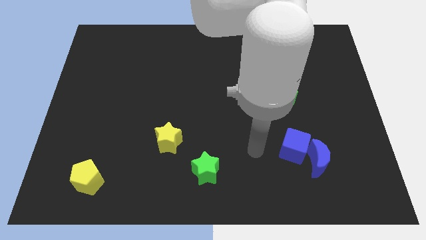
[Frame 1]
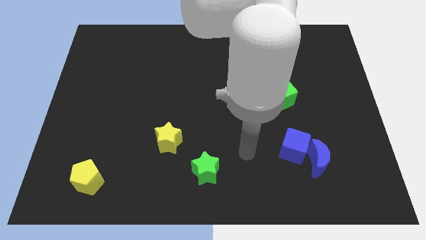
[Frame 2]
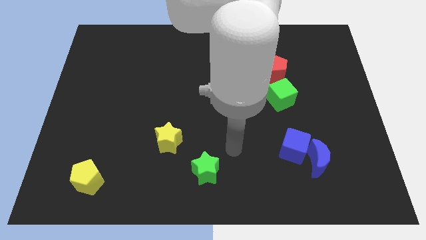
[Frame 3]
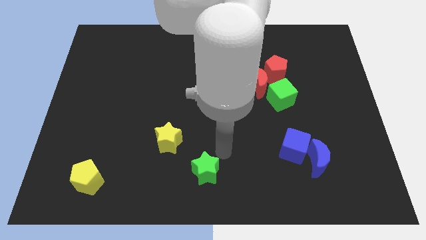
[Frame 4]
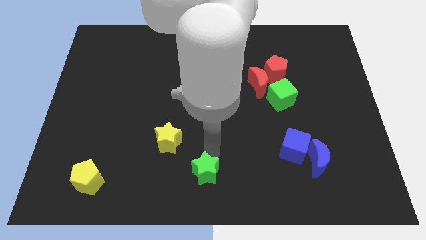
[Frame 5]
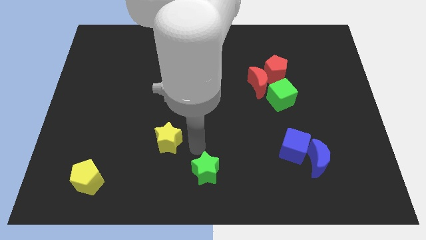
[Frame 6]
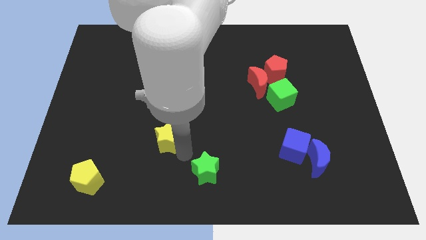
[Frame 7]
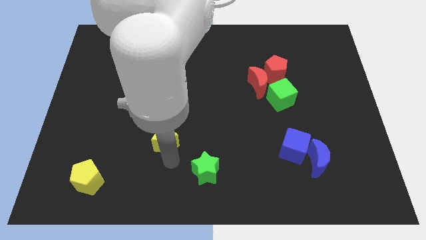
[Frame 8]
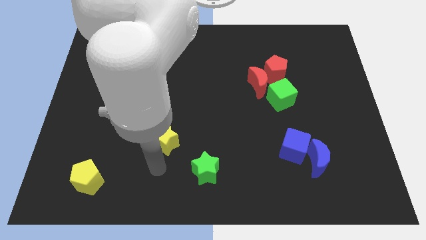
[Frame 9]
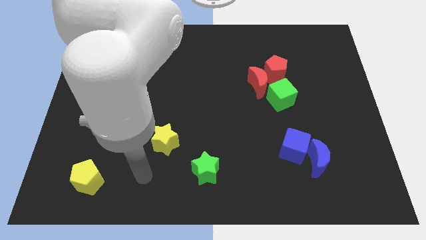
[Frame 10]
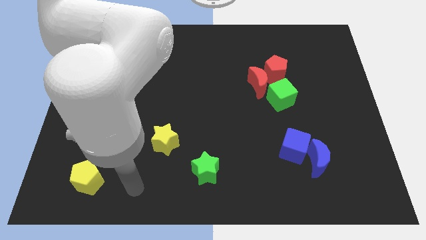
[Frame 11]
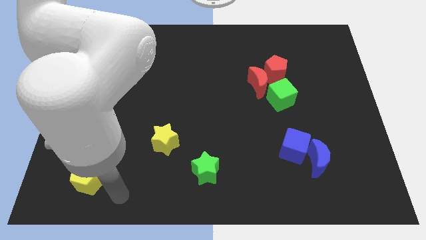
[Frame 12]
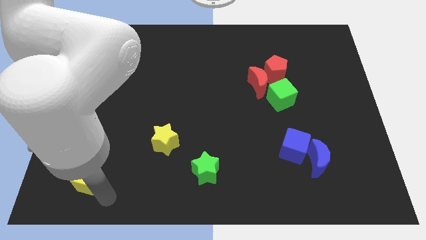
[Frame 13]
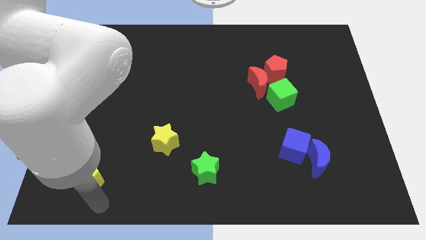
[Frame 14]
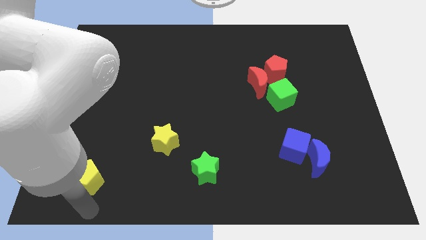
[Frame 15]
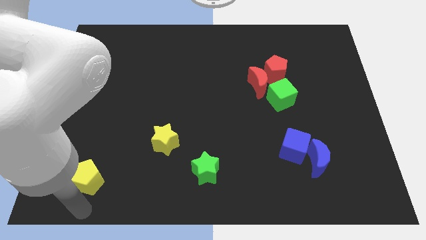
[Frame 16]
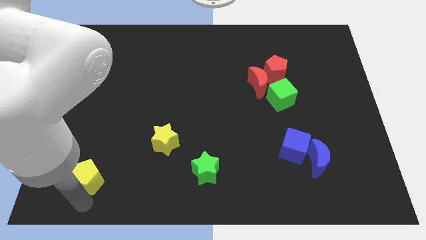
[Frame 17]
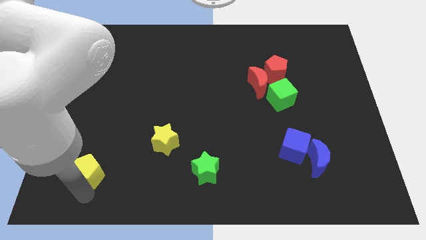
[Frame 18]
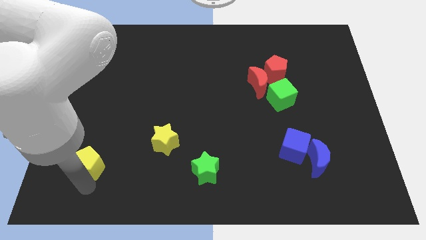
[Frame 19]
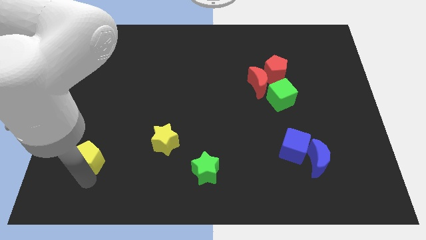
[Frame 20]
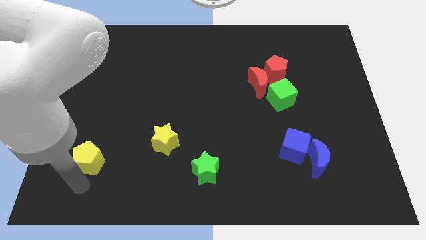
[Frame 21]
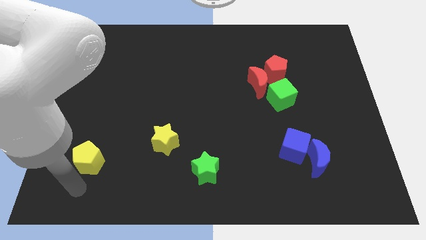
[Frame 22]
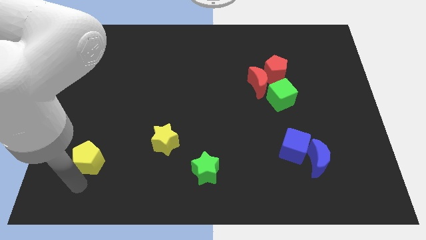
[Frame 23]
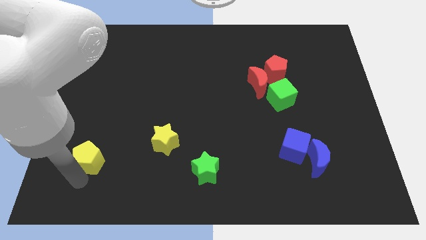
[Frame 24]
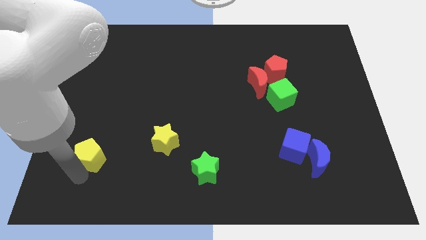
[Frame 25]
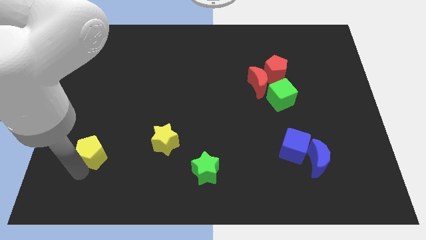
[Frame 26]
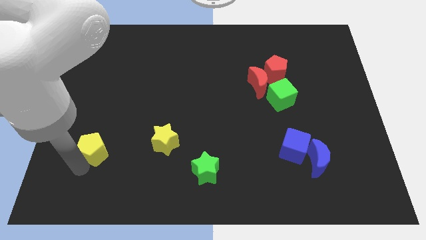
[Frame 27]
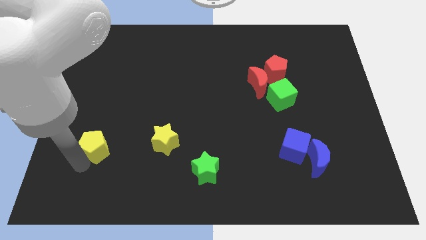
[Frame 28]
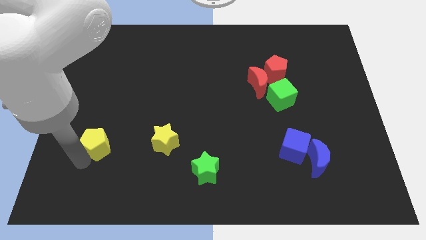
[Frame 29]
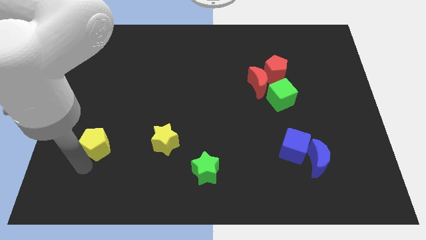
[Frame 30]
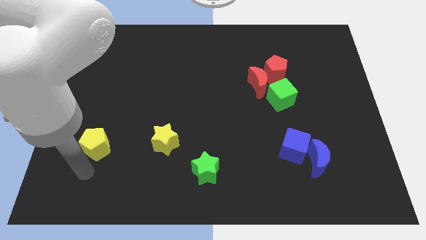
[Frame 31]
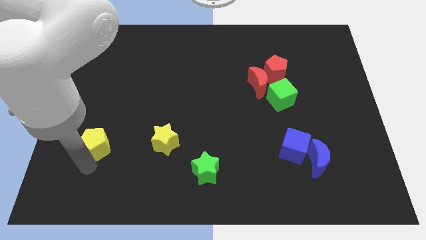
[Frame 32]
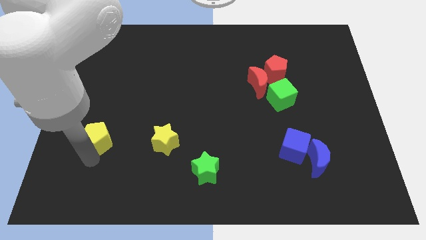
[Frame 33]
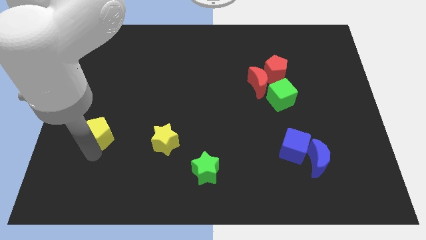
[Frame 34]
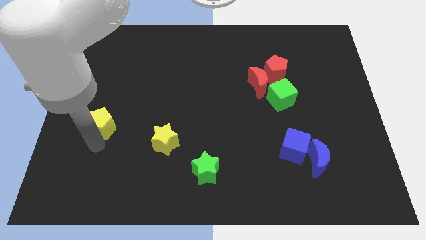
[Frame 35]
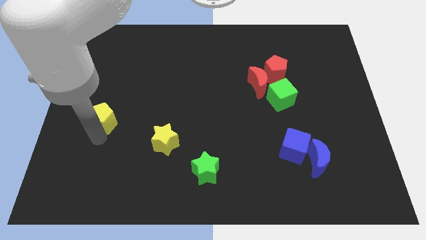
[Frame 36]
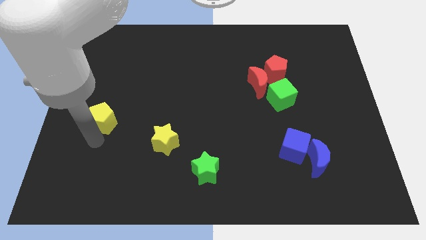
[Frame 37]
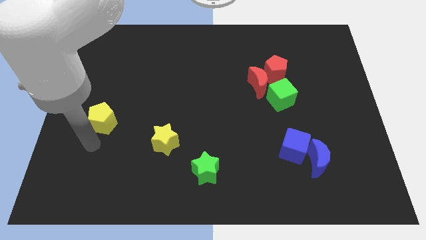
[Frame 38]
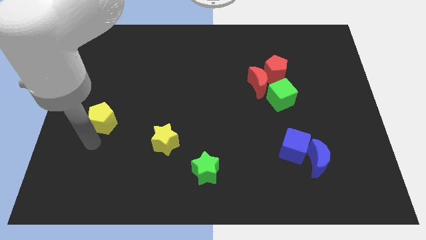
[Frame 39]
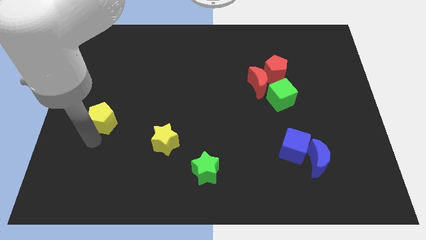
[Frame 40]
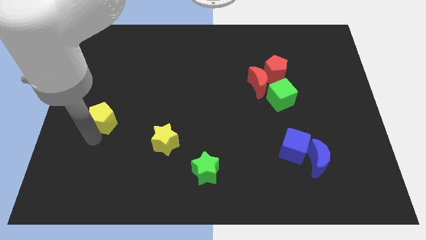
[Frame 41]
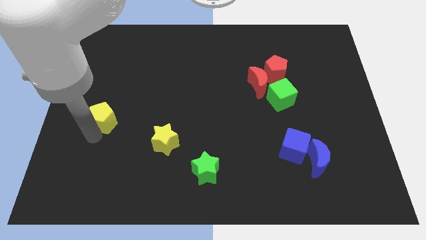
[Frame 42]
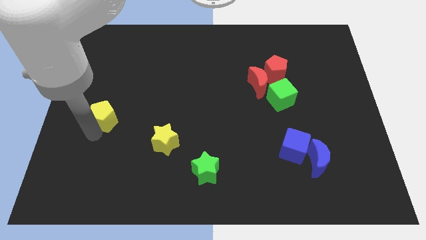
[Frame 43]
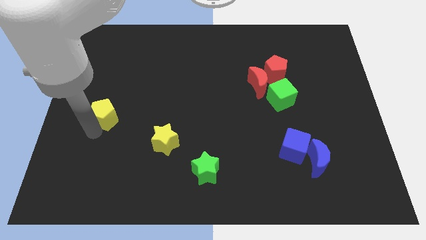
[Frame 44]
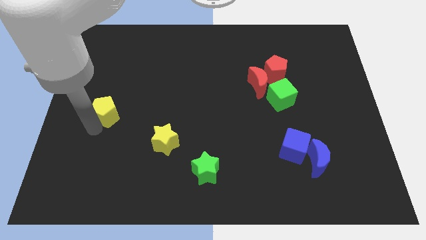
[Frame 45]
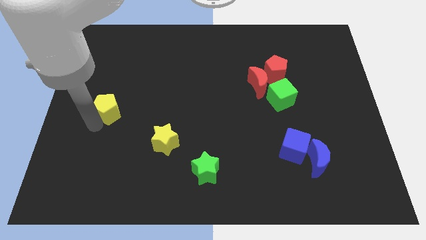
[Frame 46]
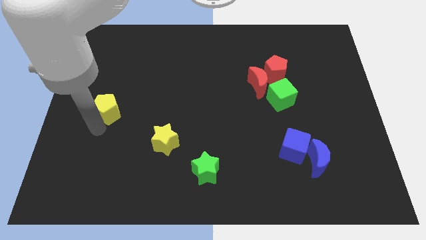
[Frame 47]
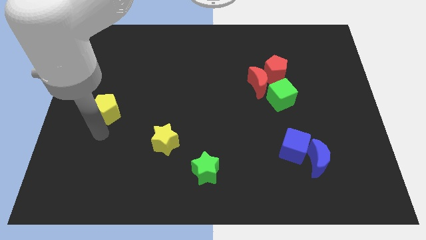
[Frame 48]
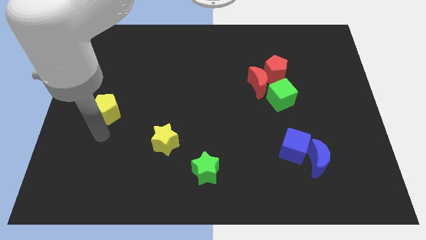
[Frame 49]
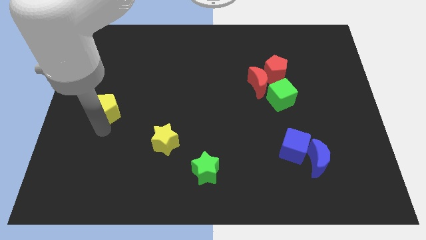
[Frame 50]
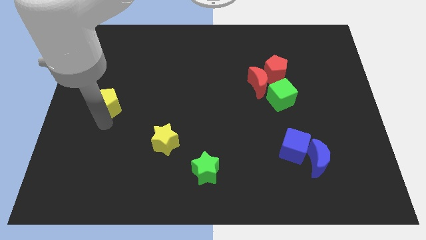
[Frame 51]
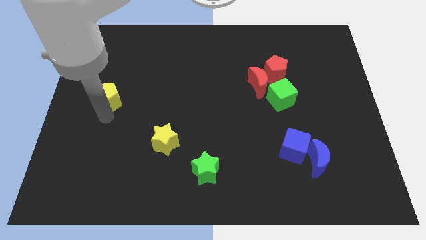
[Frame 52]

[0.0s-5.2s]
slide the yellow pentagon upwards

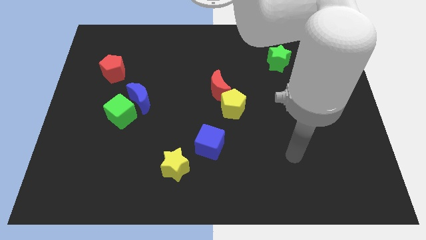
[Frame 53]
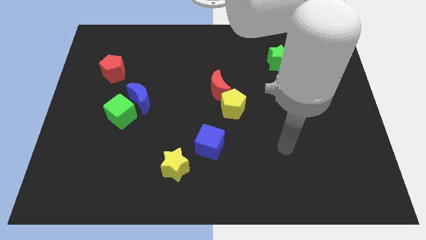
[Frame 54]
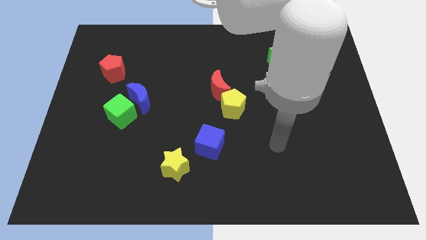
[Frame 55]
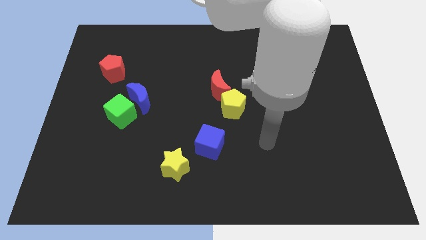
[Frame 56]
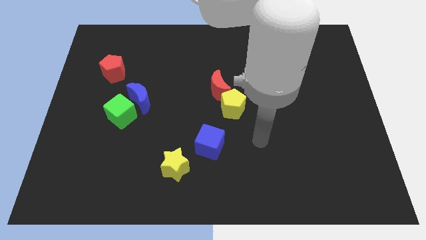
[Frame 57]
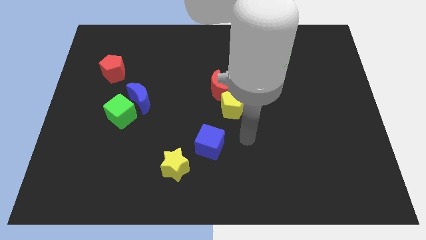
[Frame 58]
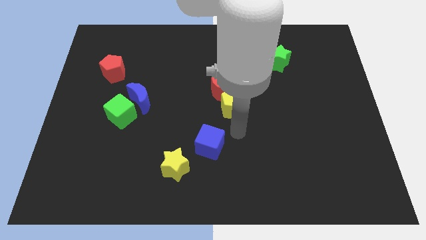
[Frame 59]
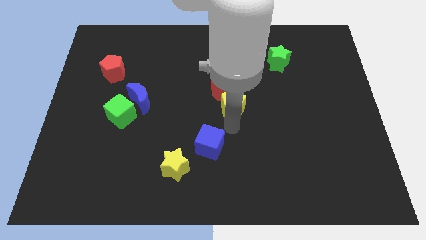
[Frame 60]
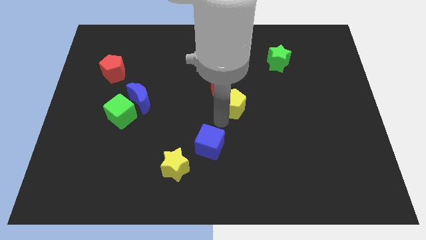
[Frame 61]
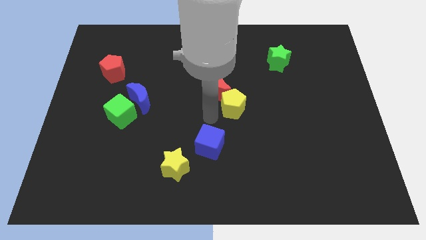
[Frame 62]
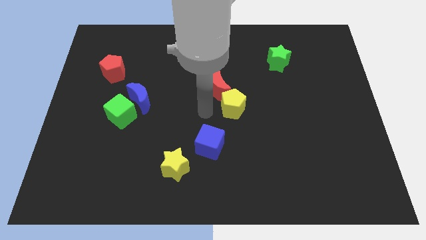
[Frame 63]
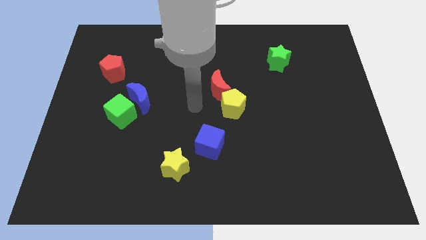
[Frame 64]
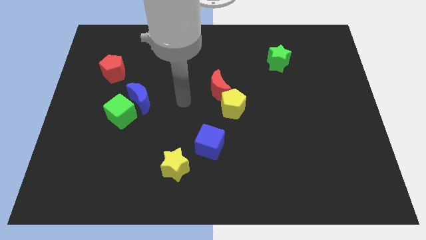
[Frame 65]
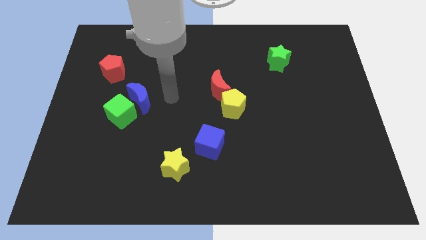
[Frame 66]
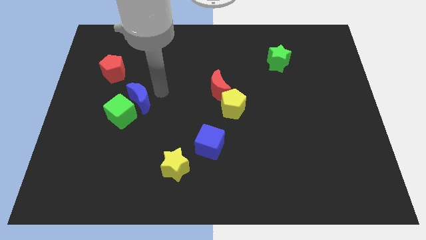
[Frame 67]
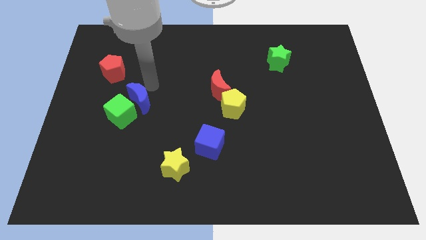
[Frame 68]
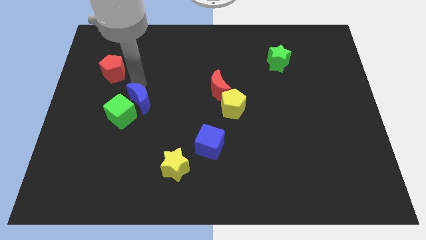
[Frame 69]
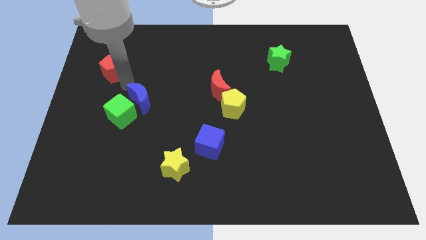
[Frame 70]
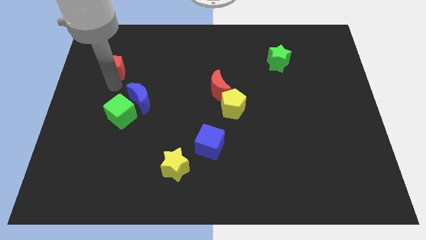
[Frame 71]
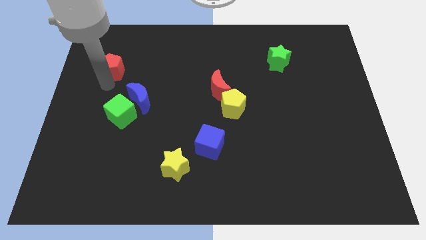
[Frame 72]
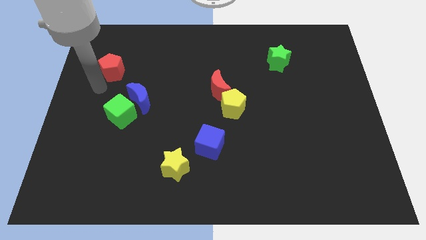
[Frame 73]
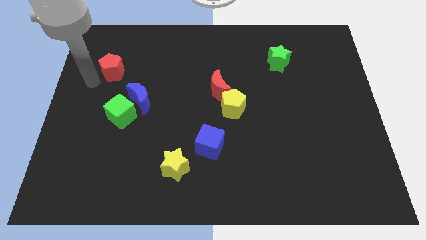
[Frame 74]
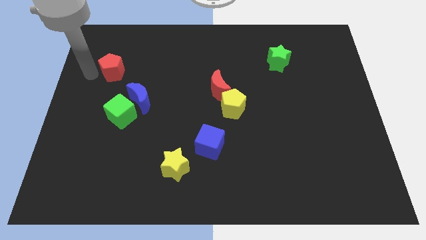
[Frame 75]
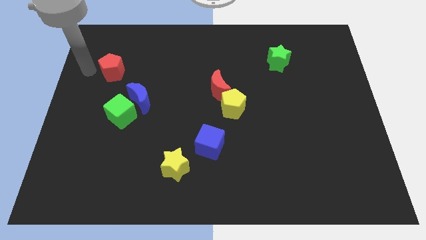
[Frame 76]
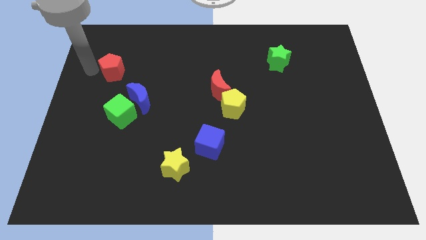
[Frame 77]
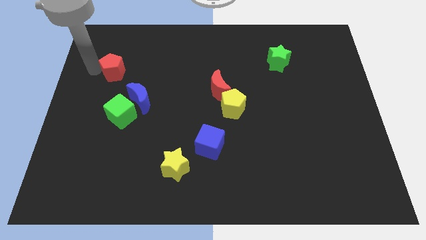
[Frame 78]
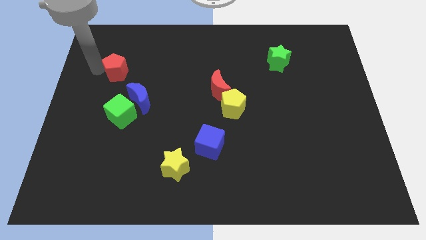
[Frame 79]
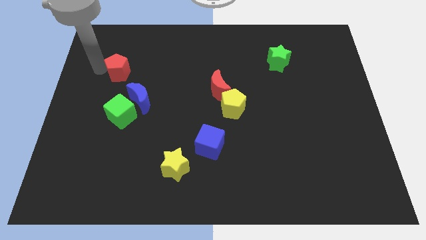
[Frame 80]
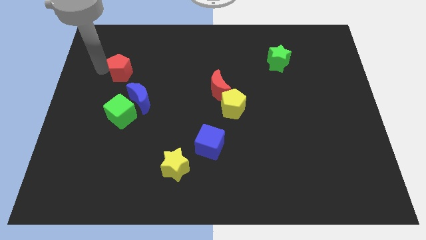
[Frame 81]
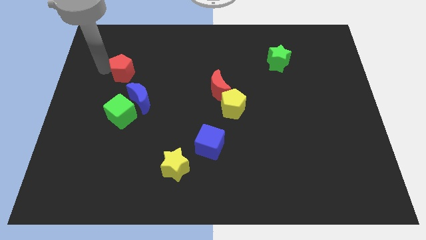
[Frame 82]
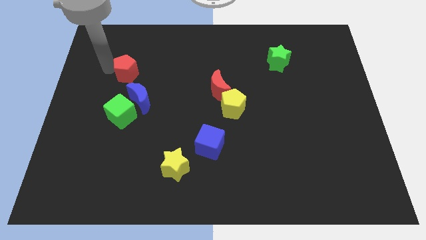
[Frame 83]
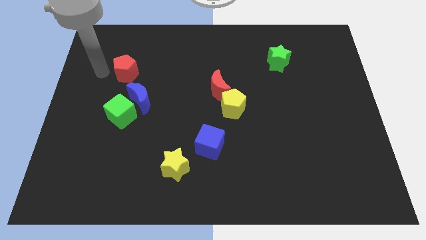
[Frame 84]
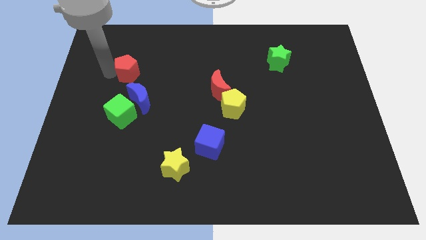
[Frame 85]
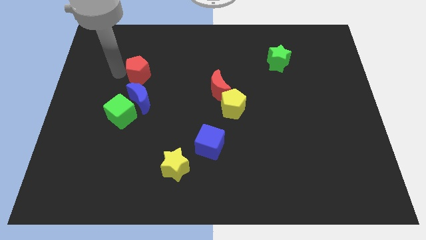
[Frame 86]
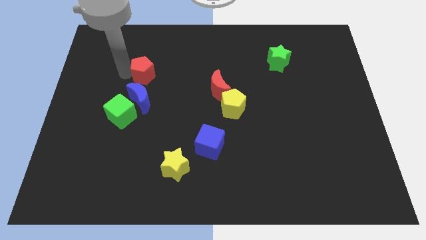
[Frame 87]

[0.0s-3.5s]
slide the red pentagon slightly to the right
